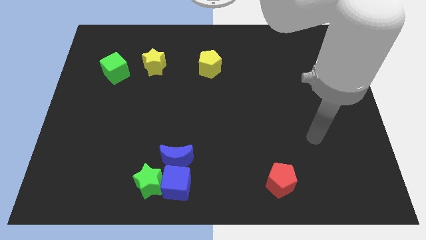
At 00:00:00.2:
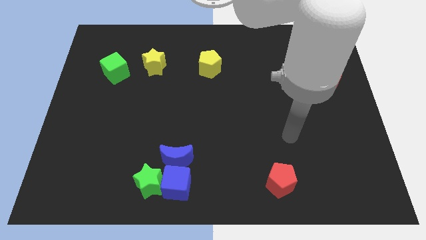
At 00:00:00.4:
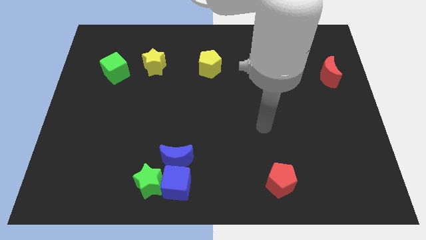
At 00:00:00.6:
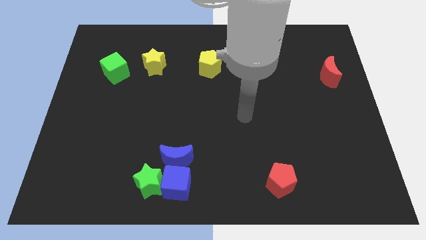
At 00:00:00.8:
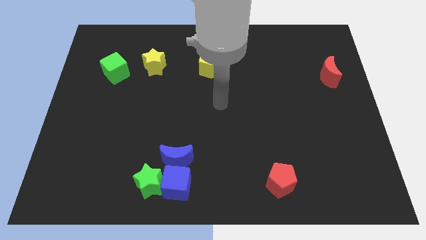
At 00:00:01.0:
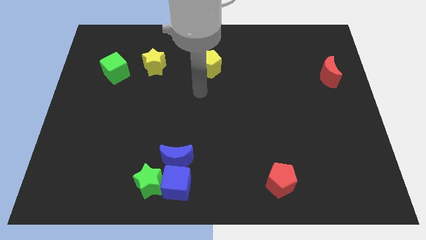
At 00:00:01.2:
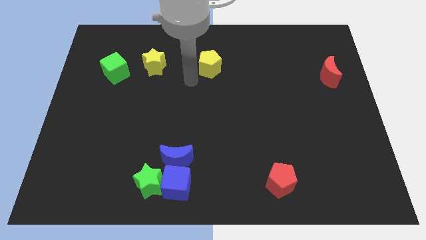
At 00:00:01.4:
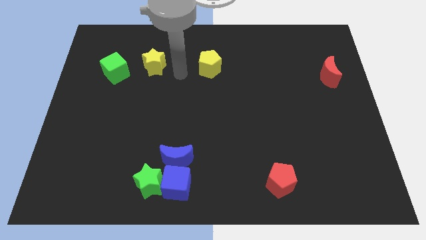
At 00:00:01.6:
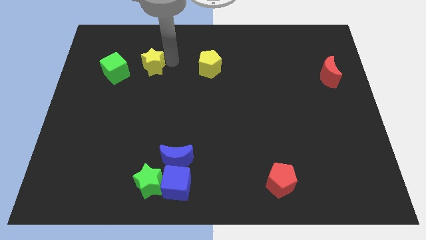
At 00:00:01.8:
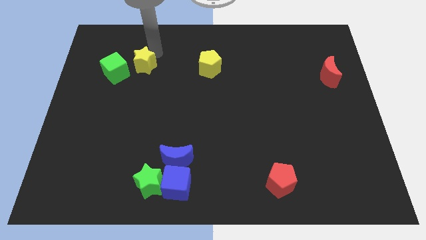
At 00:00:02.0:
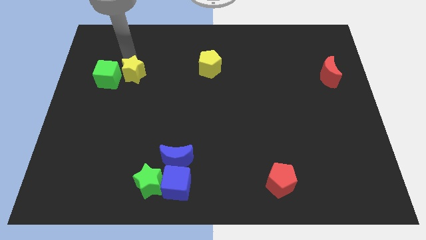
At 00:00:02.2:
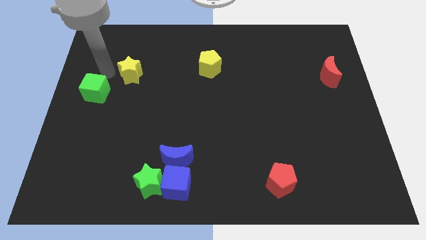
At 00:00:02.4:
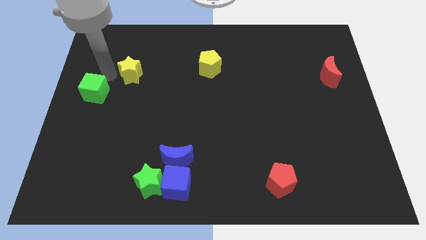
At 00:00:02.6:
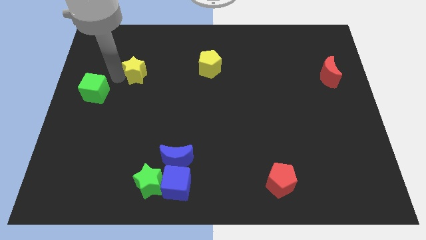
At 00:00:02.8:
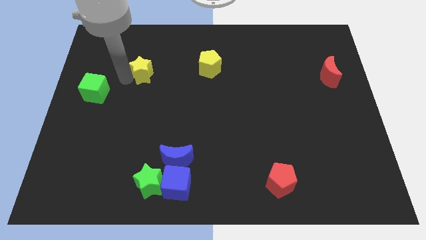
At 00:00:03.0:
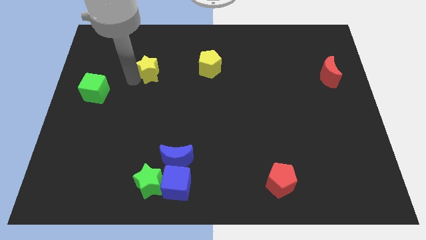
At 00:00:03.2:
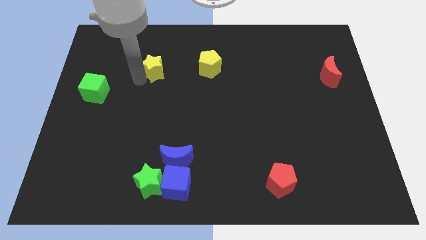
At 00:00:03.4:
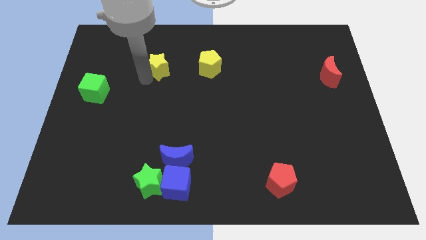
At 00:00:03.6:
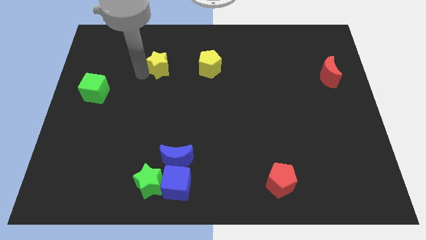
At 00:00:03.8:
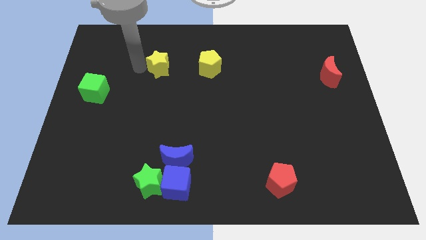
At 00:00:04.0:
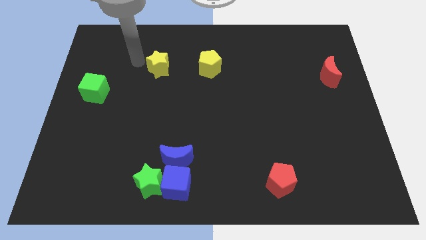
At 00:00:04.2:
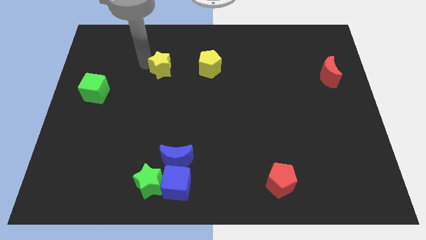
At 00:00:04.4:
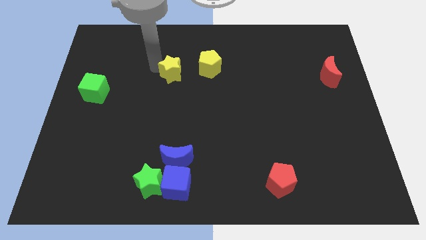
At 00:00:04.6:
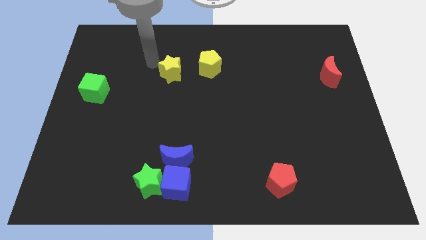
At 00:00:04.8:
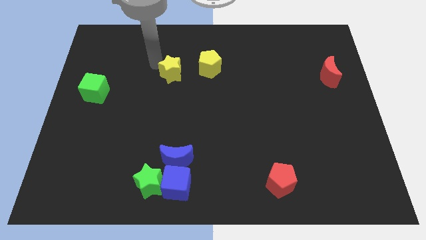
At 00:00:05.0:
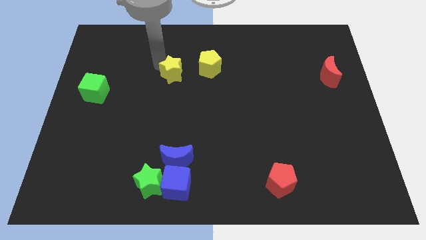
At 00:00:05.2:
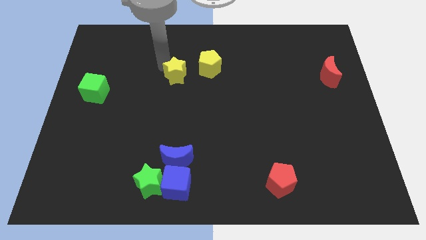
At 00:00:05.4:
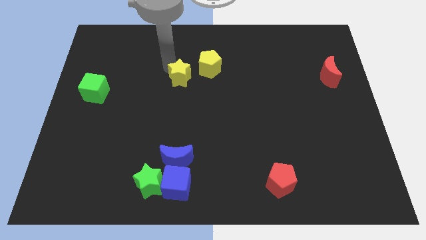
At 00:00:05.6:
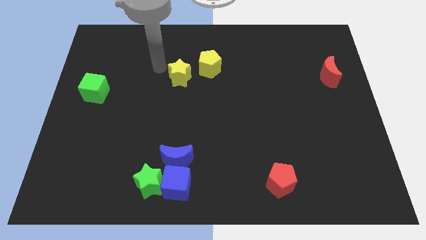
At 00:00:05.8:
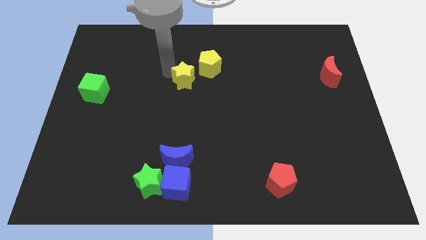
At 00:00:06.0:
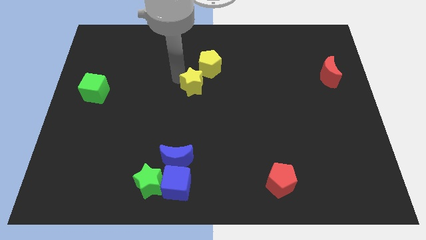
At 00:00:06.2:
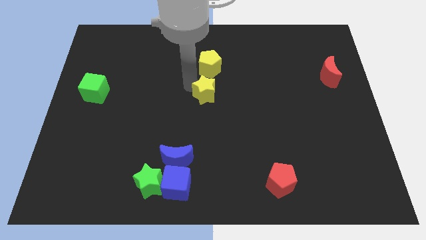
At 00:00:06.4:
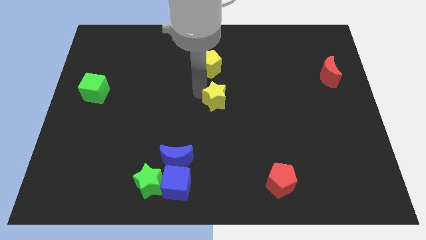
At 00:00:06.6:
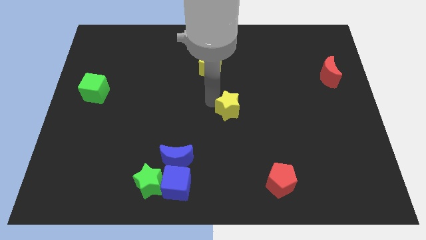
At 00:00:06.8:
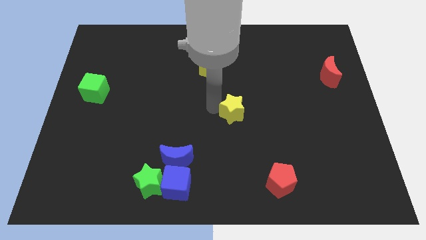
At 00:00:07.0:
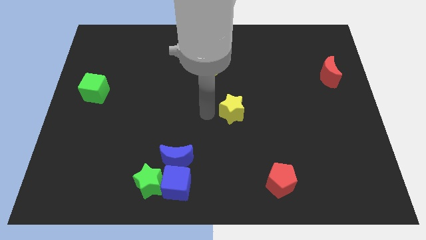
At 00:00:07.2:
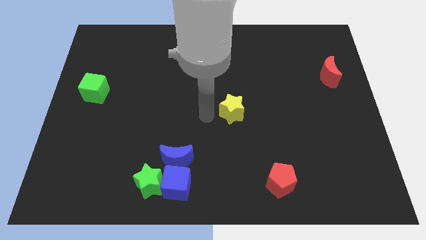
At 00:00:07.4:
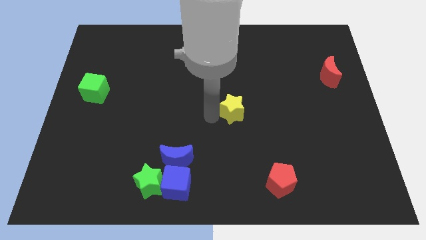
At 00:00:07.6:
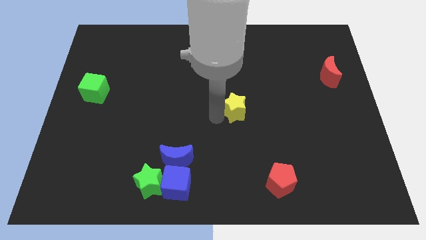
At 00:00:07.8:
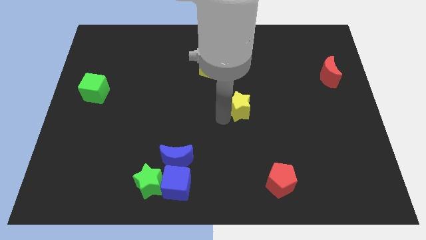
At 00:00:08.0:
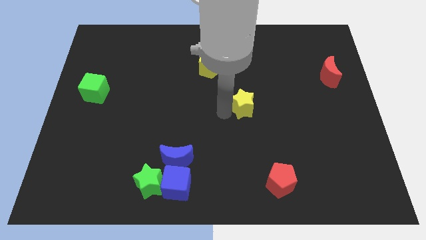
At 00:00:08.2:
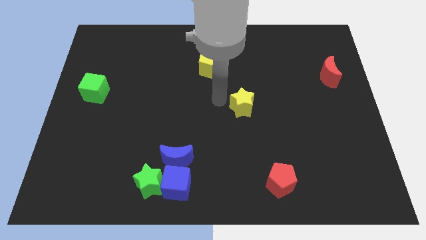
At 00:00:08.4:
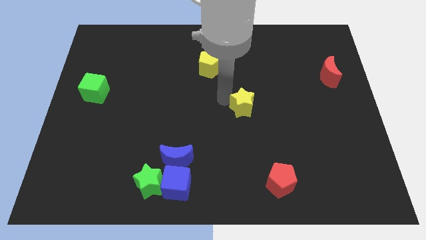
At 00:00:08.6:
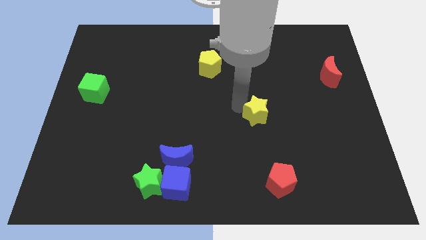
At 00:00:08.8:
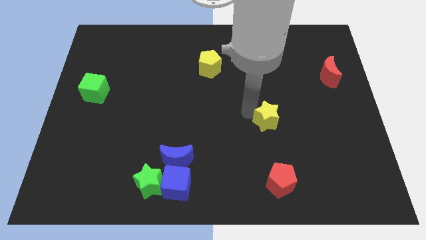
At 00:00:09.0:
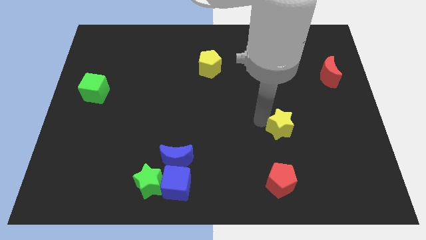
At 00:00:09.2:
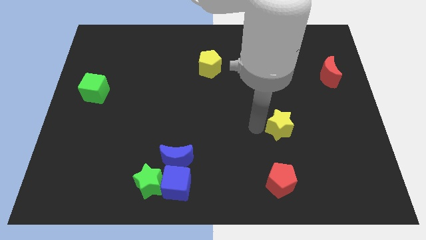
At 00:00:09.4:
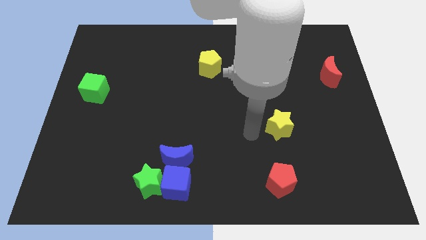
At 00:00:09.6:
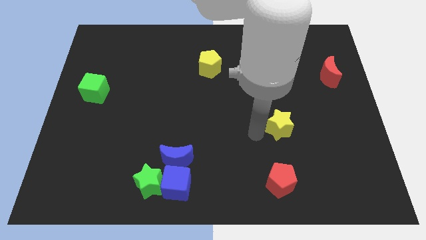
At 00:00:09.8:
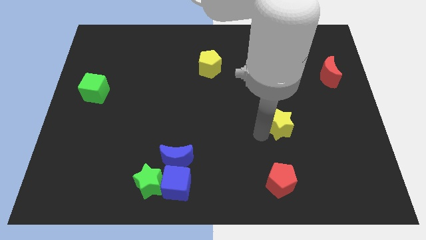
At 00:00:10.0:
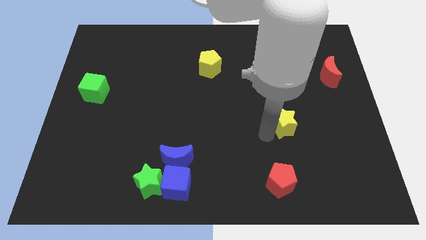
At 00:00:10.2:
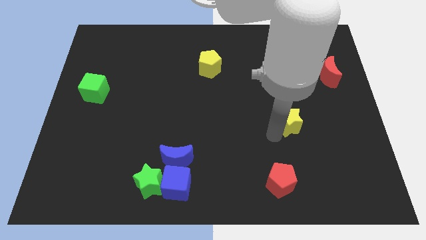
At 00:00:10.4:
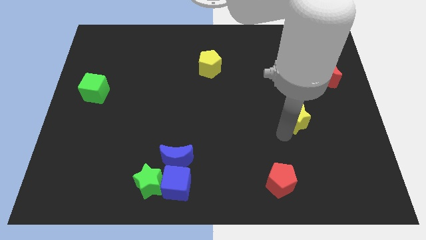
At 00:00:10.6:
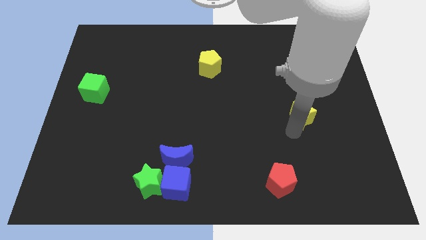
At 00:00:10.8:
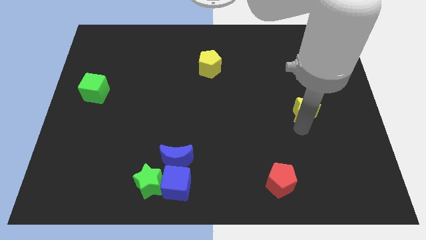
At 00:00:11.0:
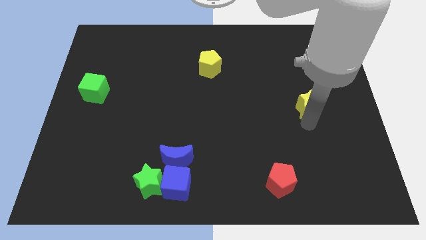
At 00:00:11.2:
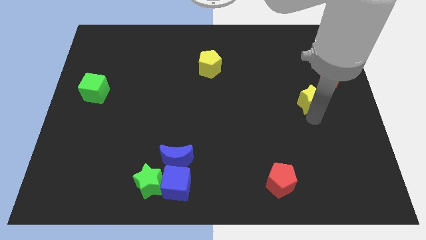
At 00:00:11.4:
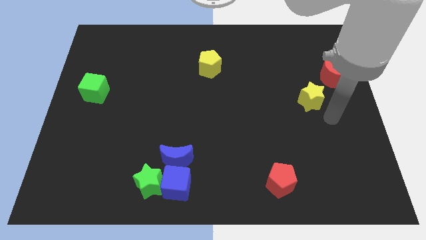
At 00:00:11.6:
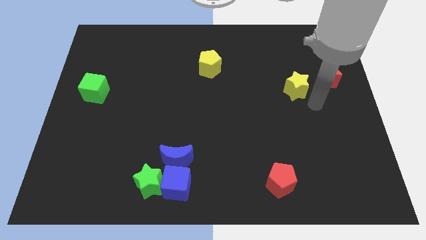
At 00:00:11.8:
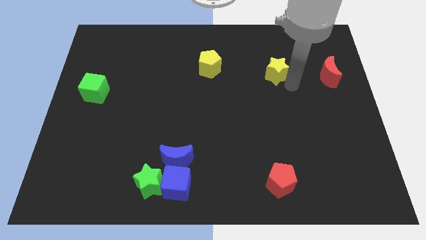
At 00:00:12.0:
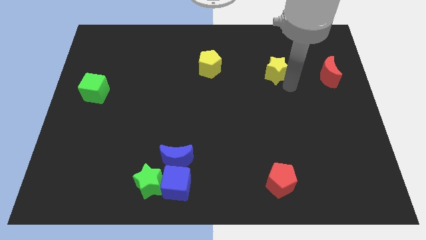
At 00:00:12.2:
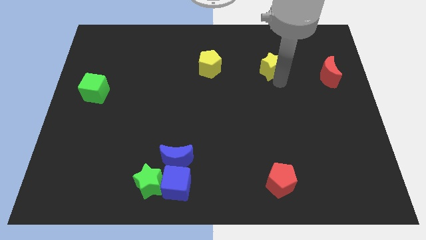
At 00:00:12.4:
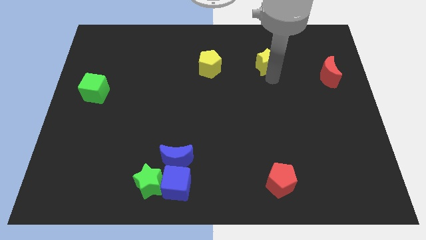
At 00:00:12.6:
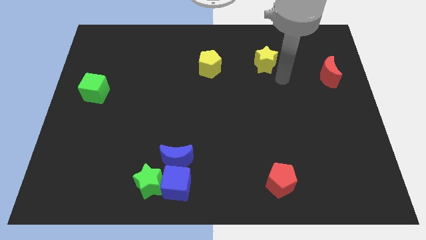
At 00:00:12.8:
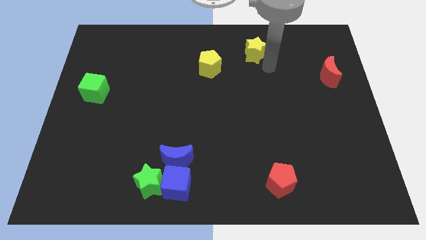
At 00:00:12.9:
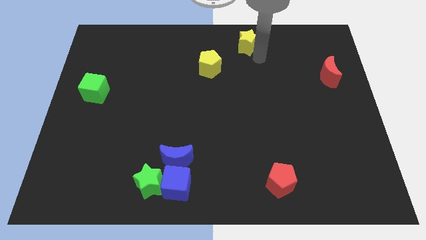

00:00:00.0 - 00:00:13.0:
slide the yellow star to the towards your base

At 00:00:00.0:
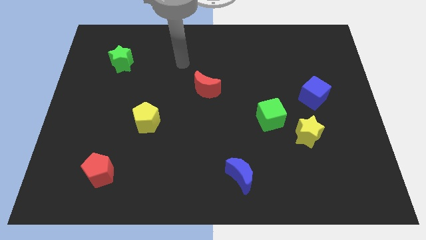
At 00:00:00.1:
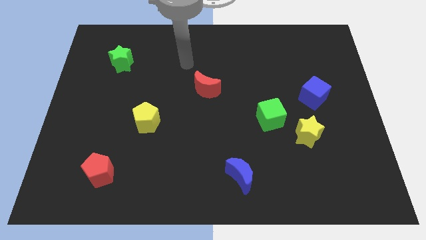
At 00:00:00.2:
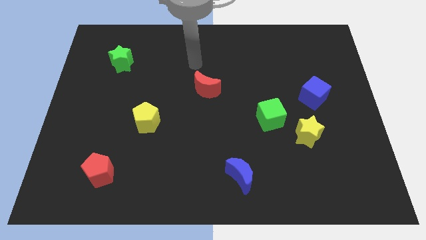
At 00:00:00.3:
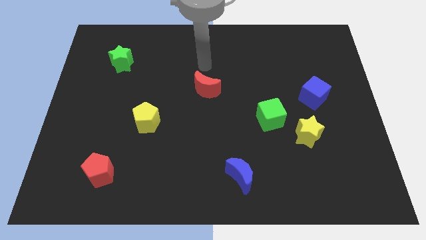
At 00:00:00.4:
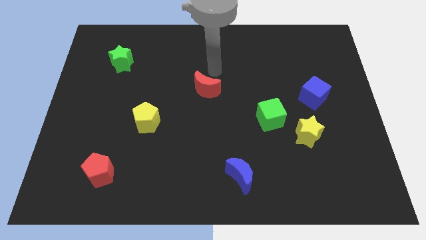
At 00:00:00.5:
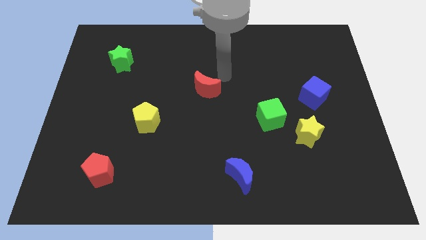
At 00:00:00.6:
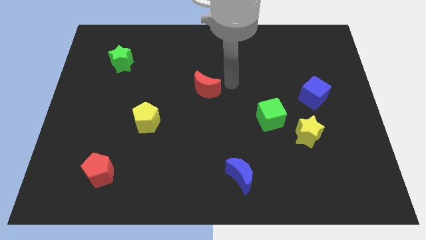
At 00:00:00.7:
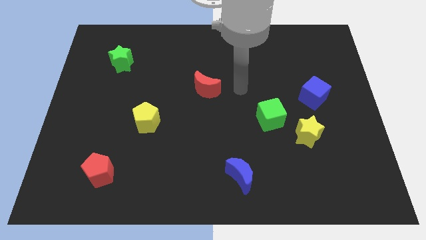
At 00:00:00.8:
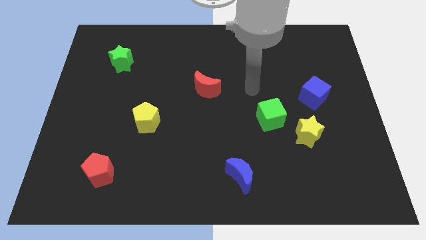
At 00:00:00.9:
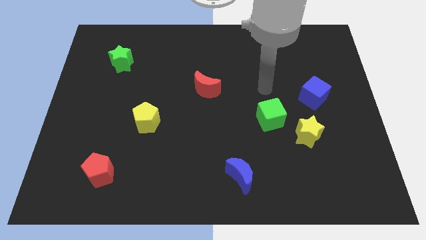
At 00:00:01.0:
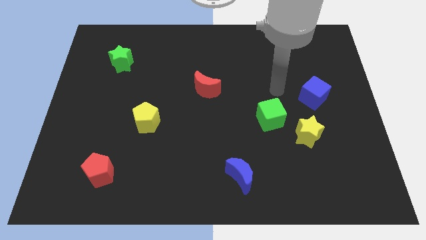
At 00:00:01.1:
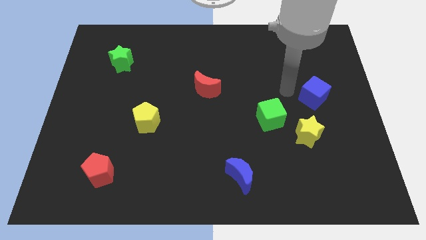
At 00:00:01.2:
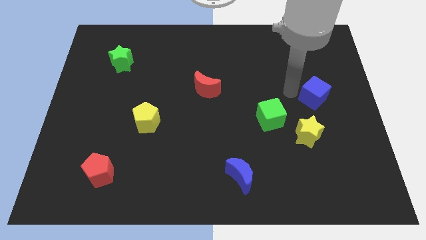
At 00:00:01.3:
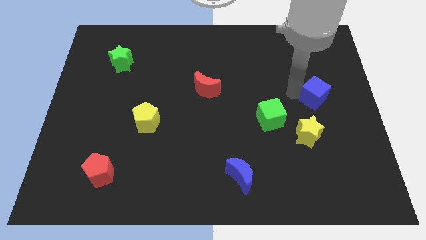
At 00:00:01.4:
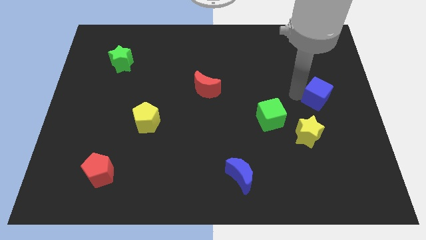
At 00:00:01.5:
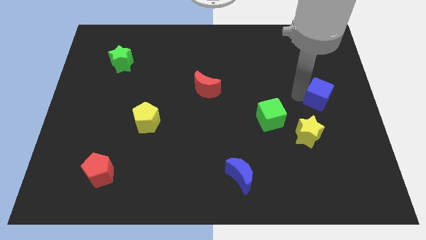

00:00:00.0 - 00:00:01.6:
slide the blue cube to the right side of the board
